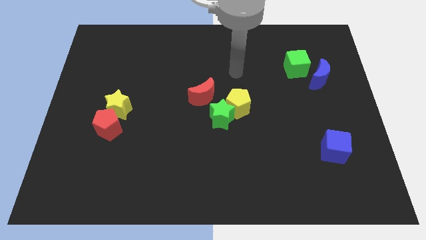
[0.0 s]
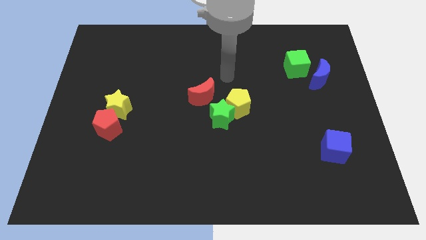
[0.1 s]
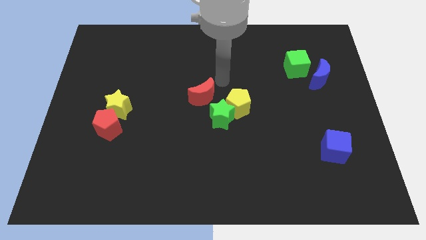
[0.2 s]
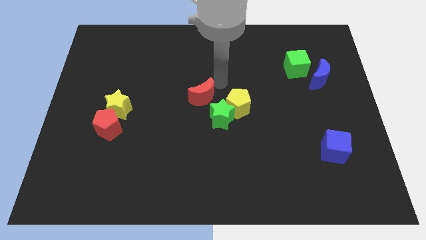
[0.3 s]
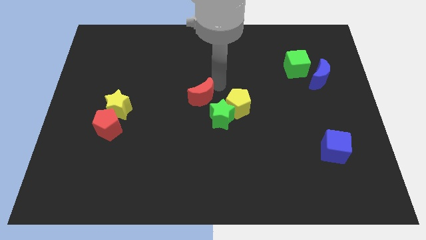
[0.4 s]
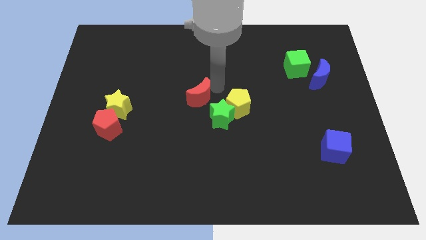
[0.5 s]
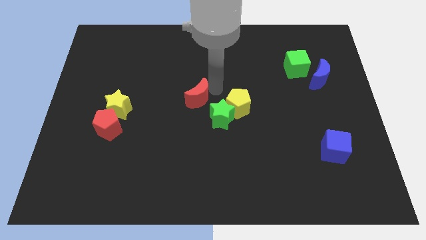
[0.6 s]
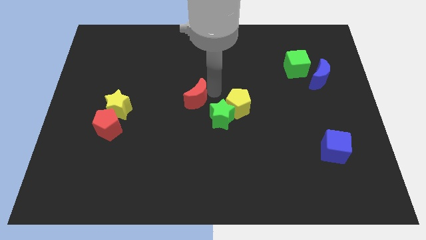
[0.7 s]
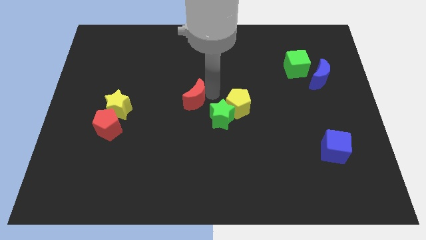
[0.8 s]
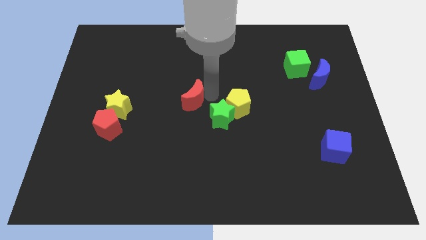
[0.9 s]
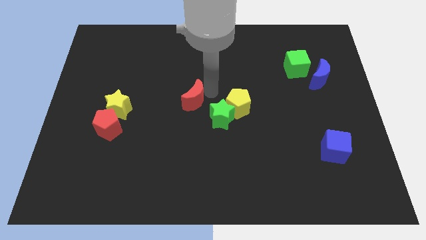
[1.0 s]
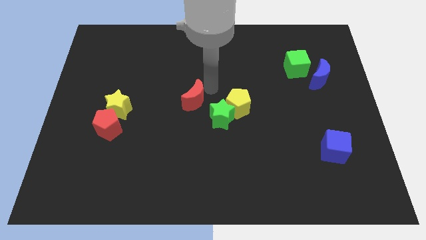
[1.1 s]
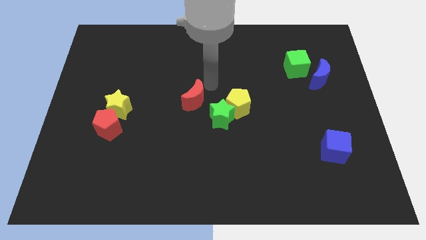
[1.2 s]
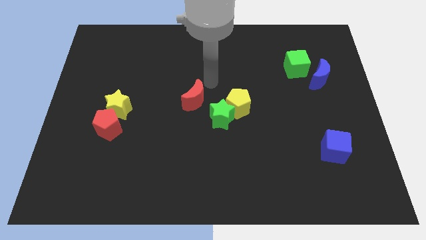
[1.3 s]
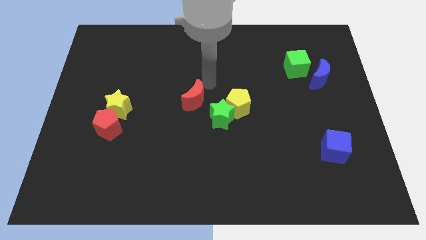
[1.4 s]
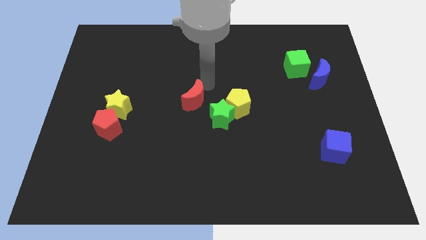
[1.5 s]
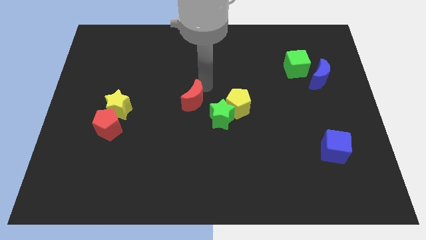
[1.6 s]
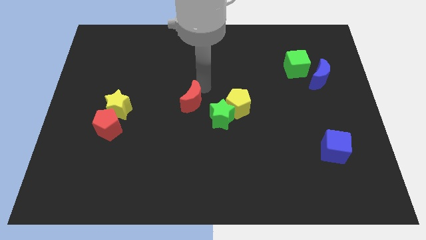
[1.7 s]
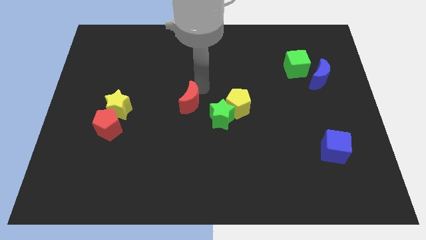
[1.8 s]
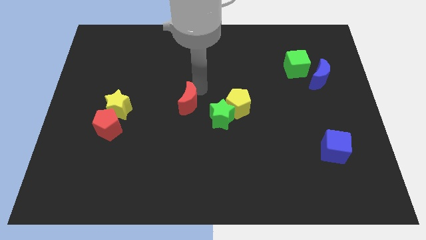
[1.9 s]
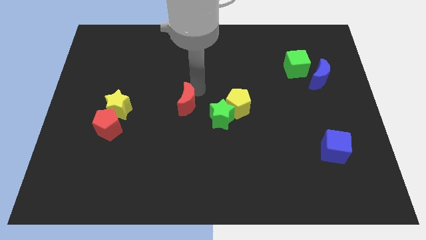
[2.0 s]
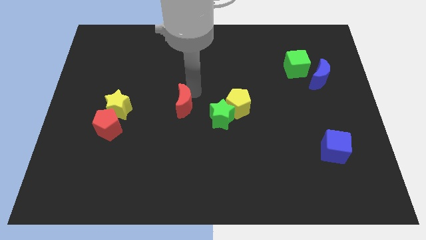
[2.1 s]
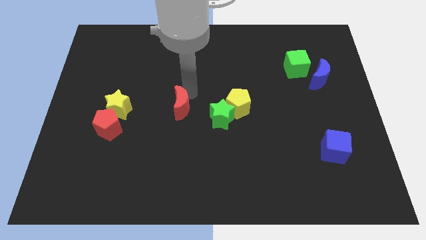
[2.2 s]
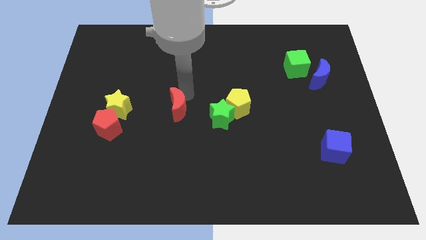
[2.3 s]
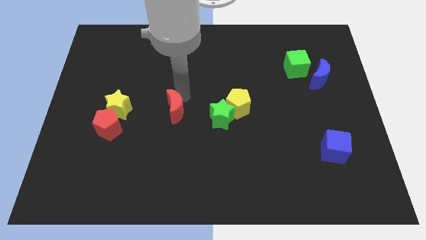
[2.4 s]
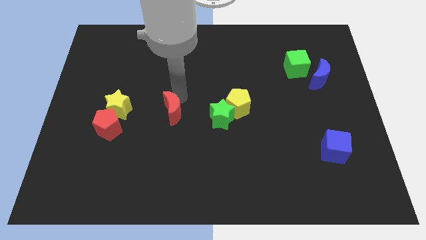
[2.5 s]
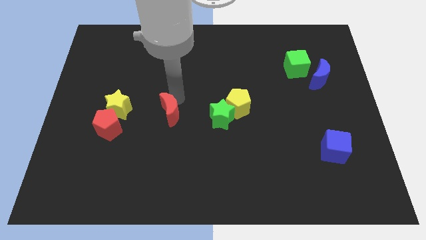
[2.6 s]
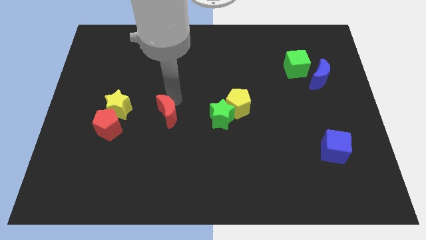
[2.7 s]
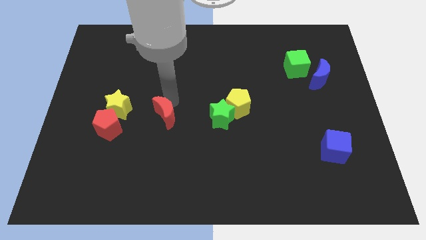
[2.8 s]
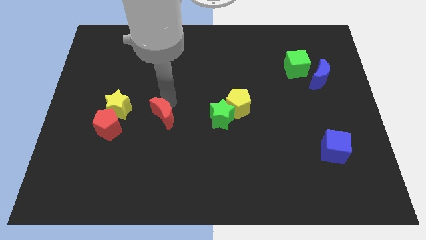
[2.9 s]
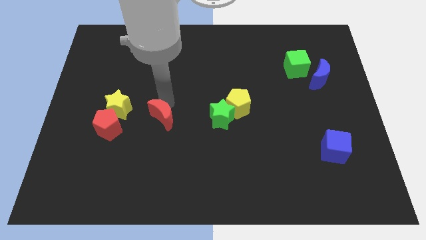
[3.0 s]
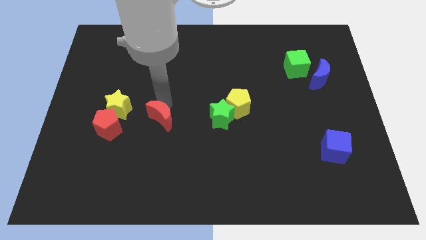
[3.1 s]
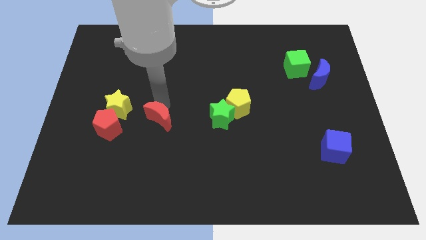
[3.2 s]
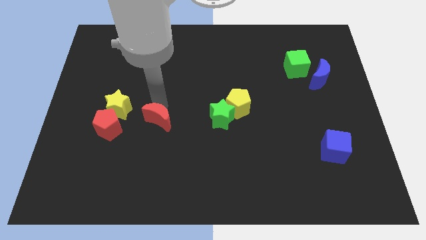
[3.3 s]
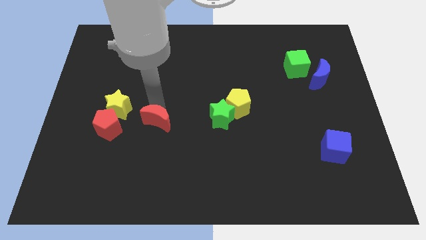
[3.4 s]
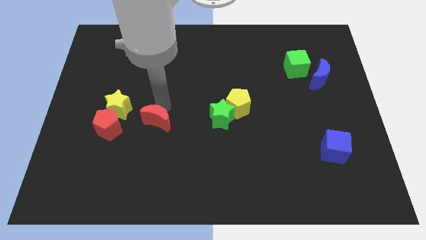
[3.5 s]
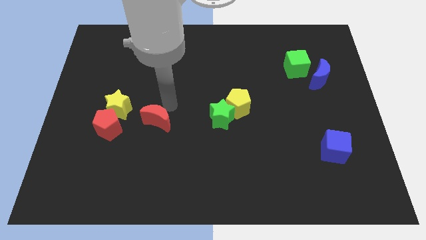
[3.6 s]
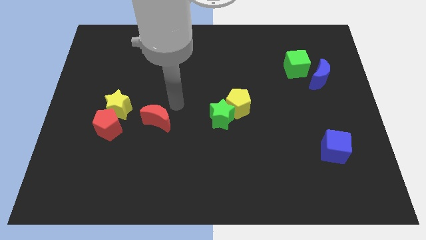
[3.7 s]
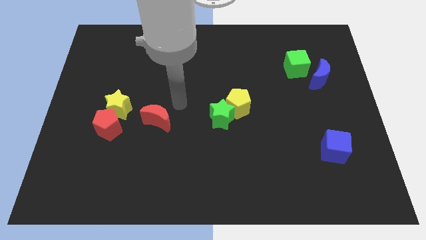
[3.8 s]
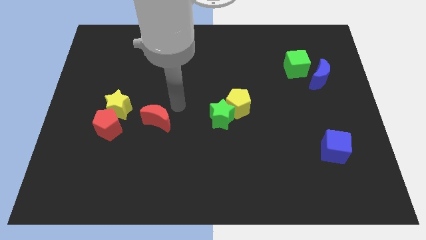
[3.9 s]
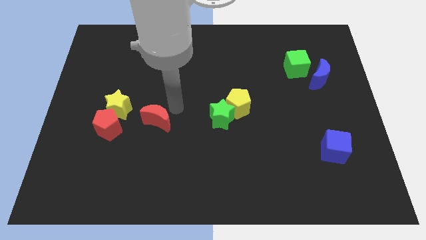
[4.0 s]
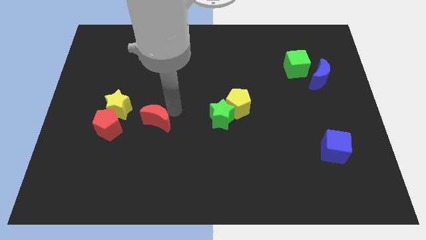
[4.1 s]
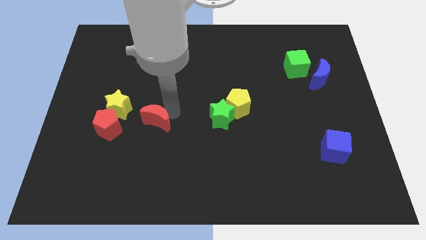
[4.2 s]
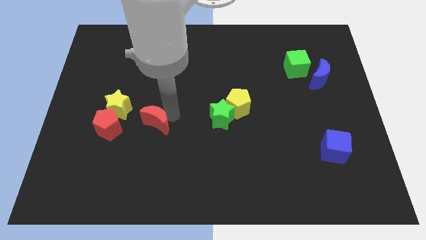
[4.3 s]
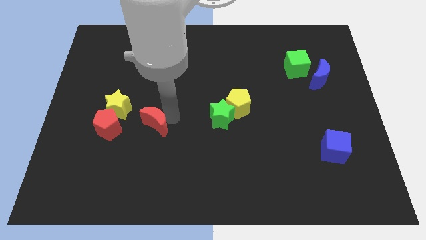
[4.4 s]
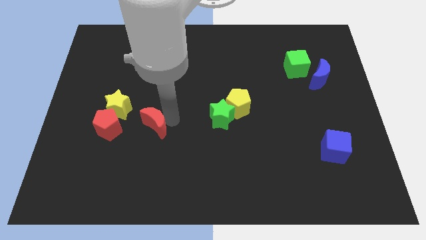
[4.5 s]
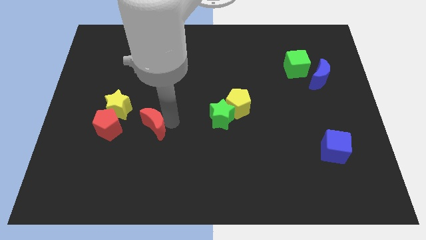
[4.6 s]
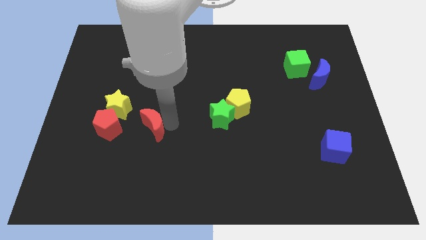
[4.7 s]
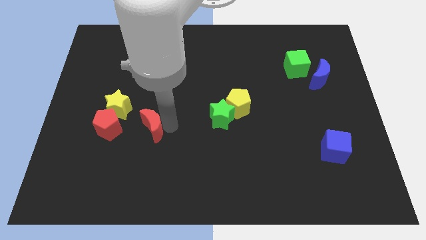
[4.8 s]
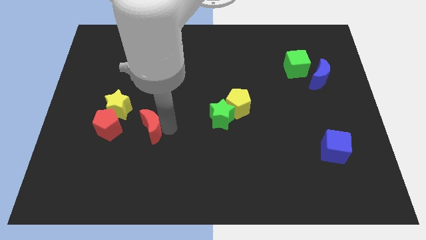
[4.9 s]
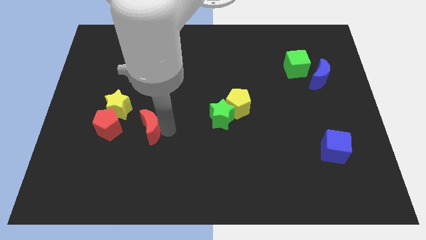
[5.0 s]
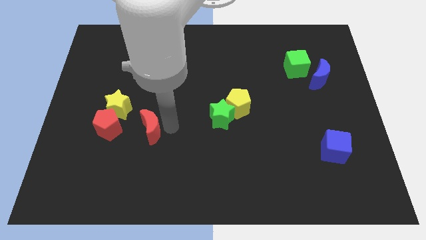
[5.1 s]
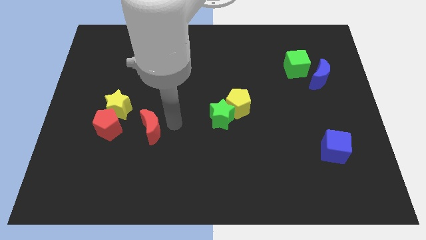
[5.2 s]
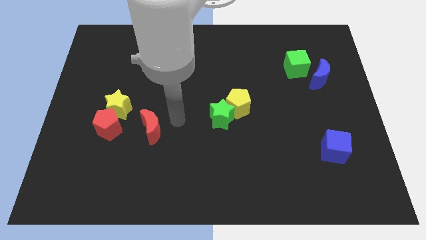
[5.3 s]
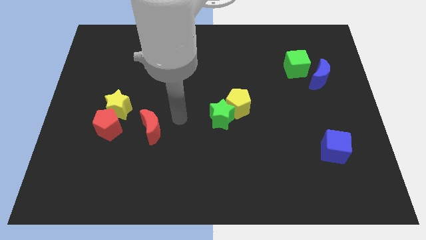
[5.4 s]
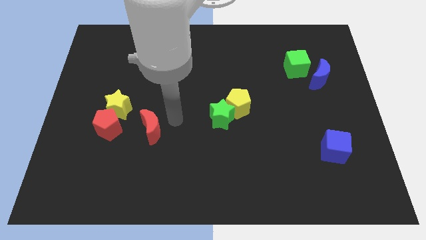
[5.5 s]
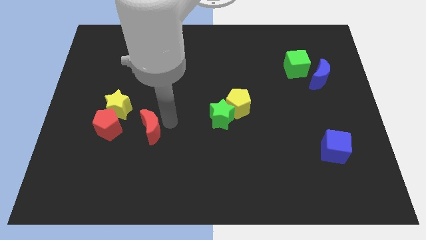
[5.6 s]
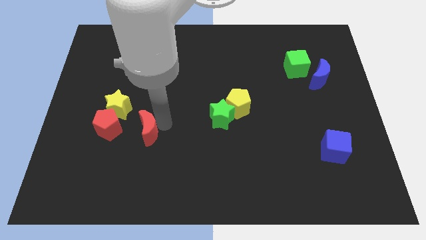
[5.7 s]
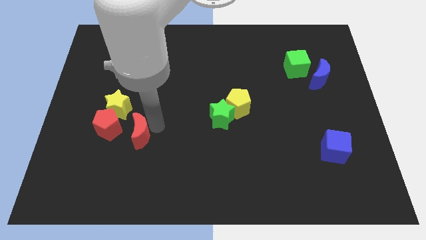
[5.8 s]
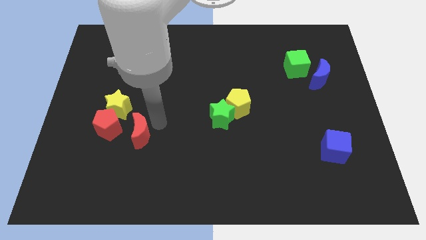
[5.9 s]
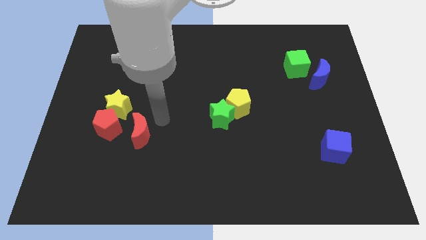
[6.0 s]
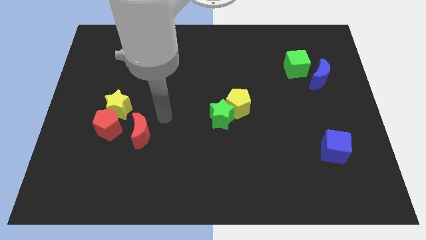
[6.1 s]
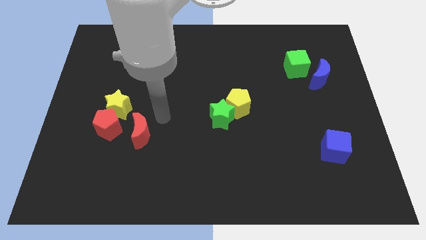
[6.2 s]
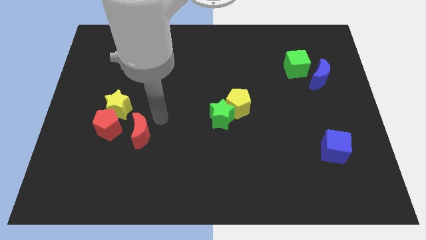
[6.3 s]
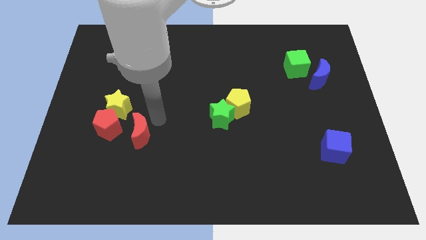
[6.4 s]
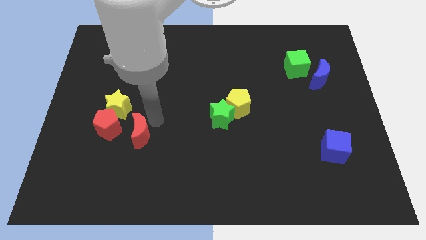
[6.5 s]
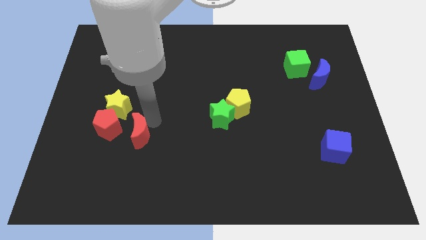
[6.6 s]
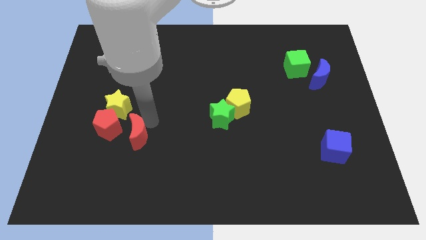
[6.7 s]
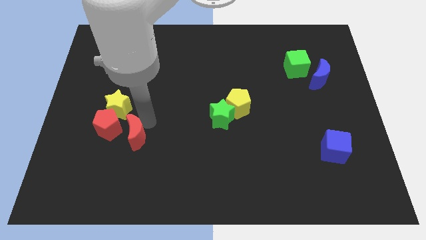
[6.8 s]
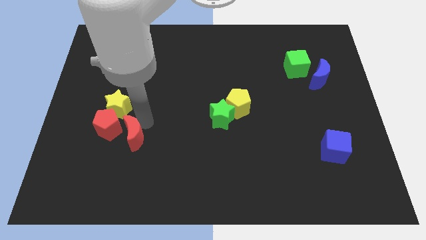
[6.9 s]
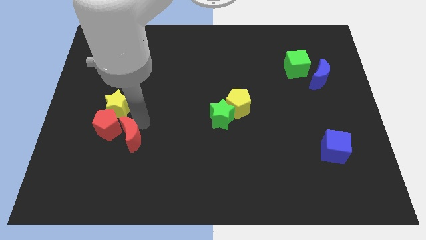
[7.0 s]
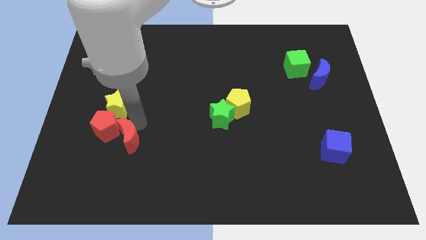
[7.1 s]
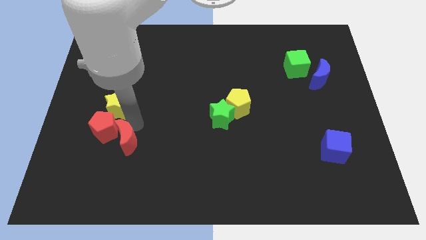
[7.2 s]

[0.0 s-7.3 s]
slide the red moon diagonally down and to the left

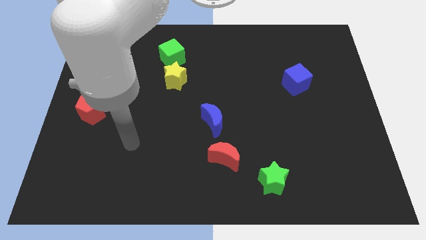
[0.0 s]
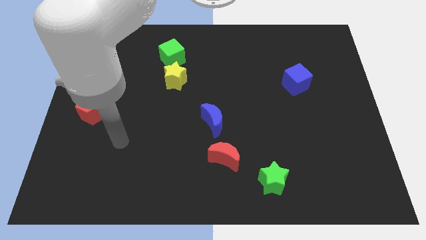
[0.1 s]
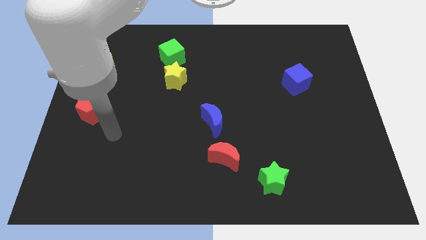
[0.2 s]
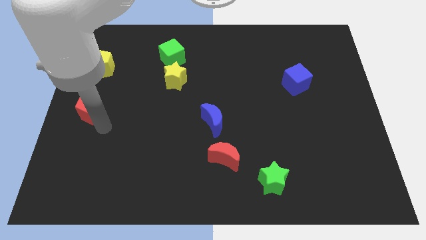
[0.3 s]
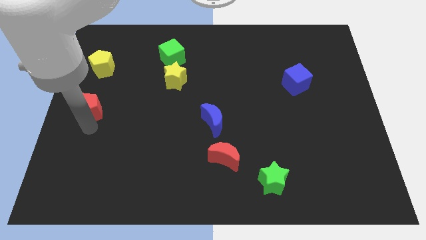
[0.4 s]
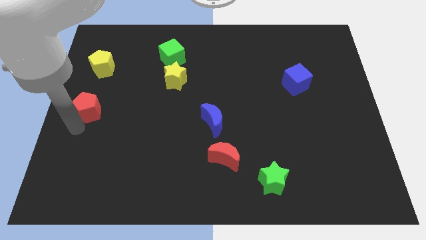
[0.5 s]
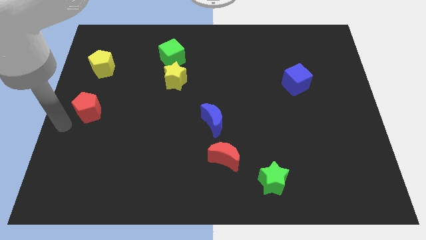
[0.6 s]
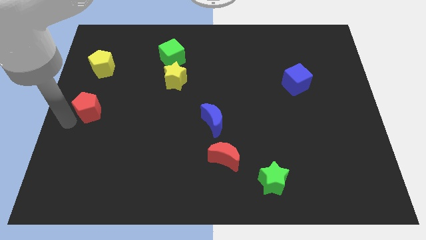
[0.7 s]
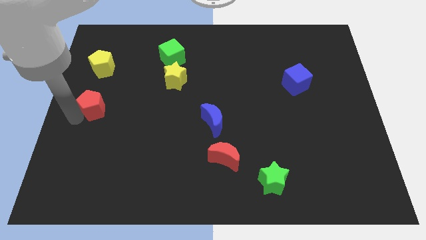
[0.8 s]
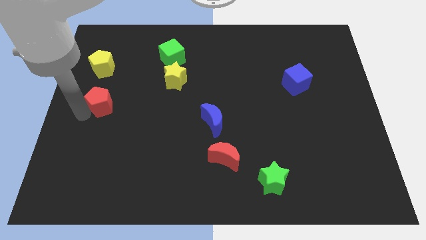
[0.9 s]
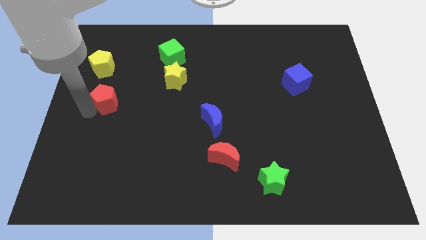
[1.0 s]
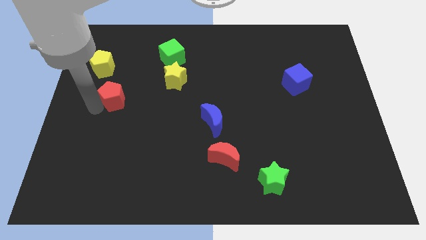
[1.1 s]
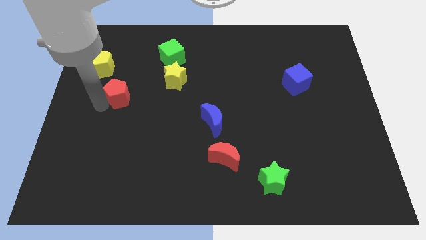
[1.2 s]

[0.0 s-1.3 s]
push the red pentagon up and to the right a little
